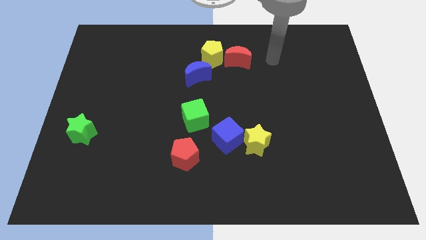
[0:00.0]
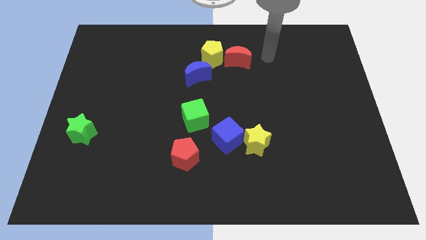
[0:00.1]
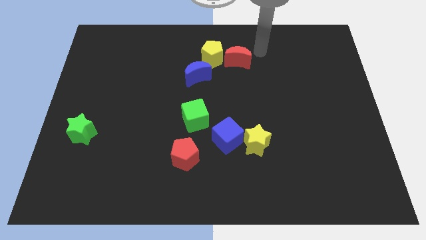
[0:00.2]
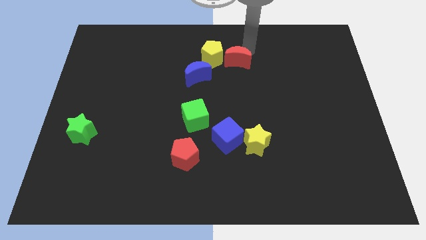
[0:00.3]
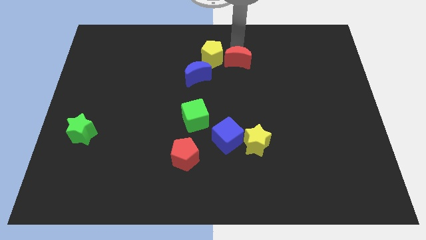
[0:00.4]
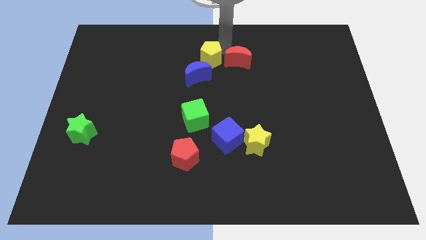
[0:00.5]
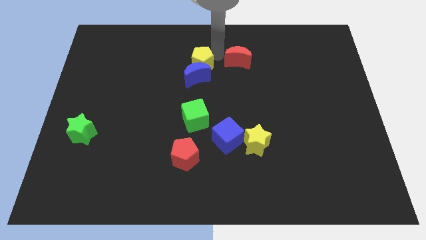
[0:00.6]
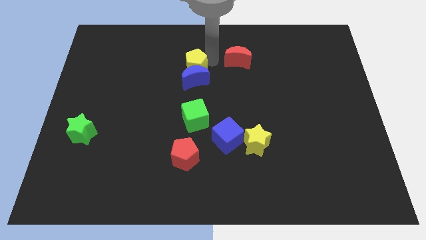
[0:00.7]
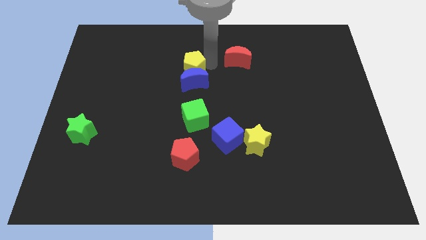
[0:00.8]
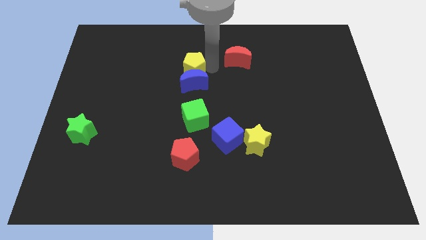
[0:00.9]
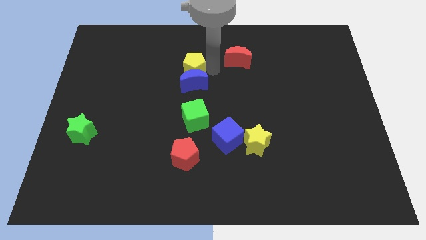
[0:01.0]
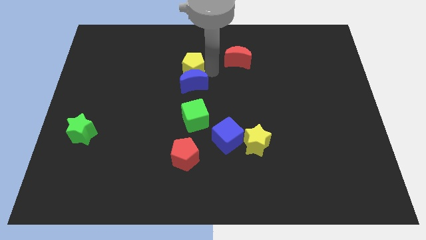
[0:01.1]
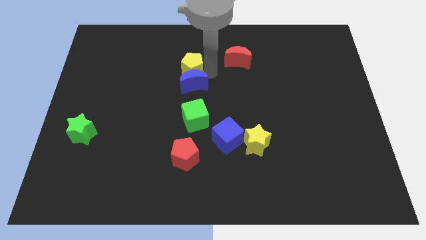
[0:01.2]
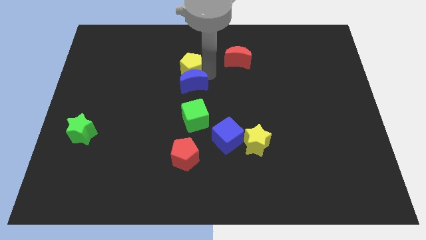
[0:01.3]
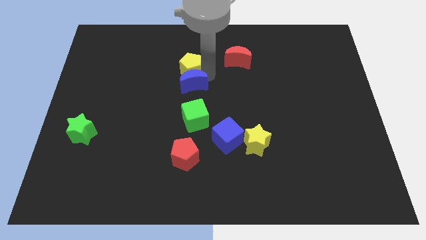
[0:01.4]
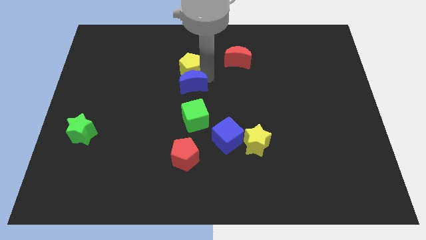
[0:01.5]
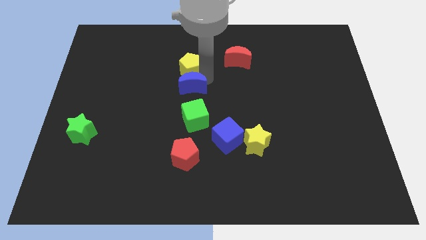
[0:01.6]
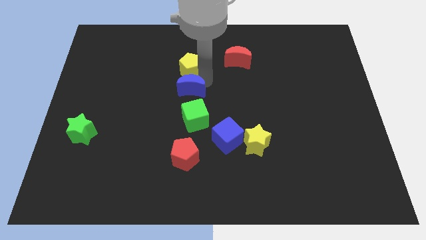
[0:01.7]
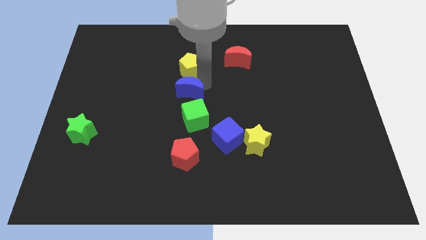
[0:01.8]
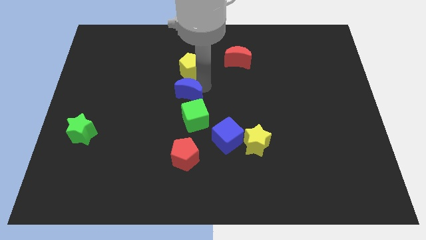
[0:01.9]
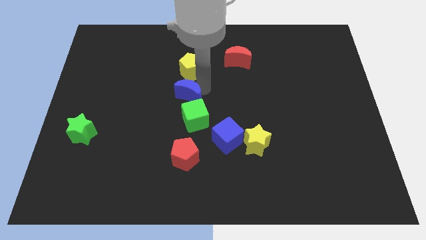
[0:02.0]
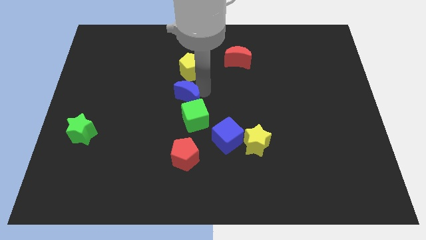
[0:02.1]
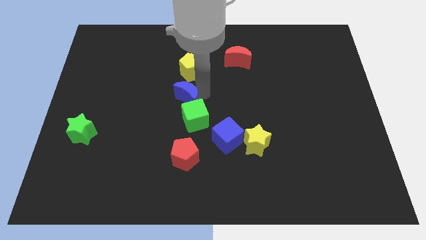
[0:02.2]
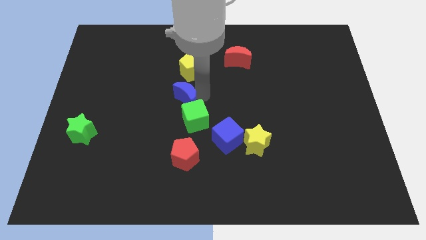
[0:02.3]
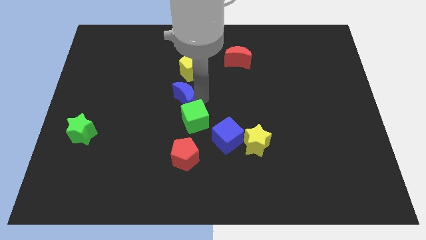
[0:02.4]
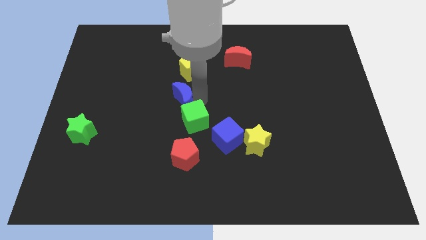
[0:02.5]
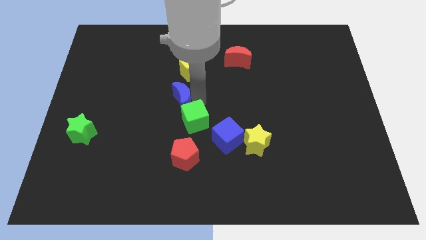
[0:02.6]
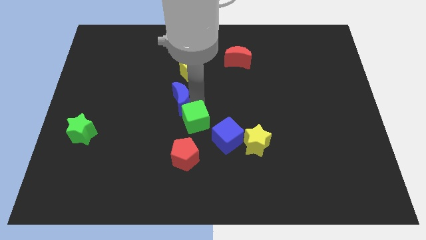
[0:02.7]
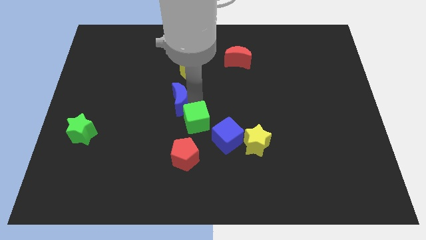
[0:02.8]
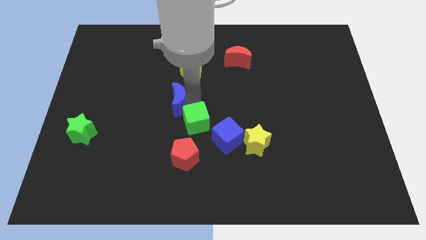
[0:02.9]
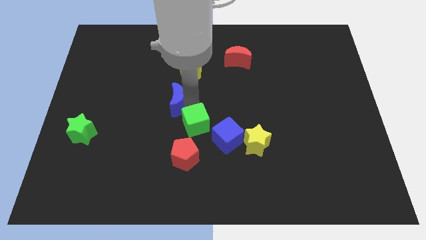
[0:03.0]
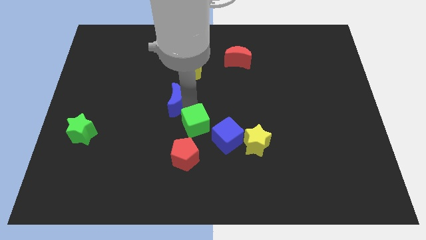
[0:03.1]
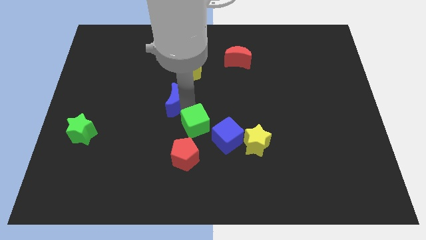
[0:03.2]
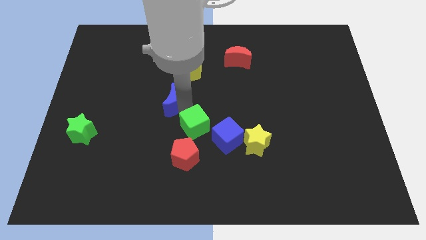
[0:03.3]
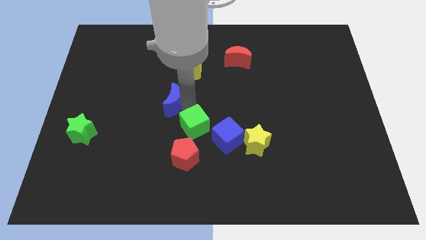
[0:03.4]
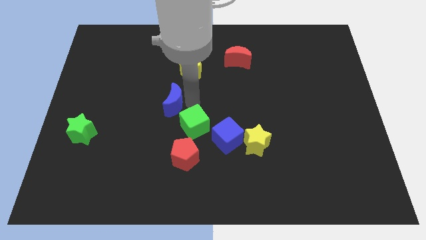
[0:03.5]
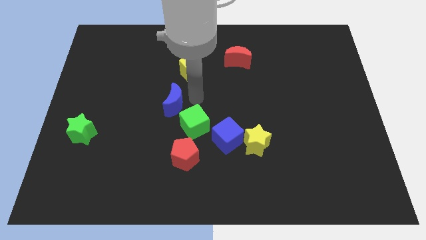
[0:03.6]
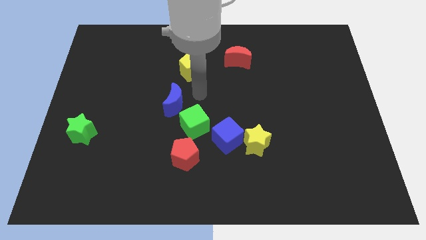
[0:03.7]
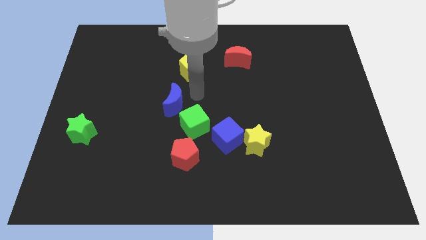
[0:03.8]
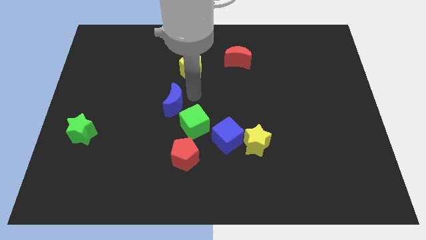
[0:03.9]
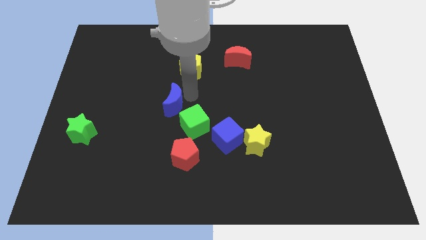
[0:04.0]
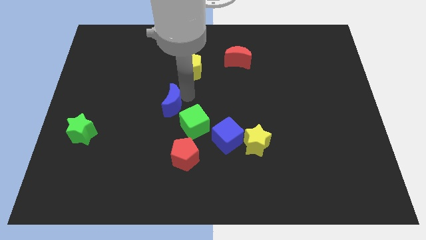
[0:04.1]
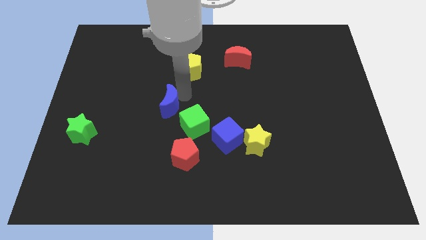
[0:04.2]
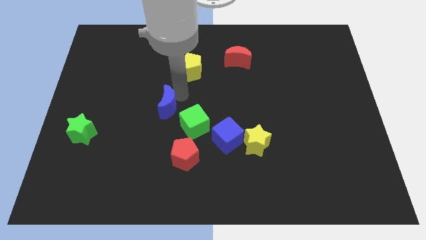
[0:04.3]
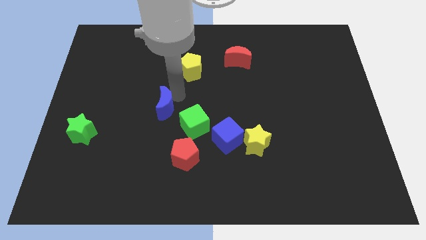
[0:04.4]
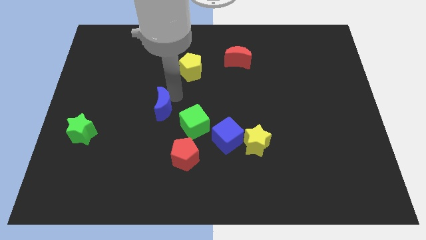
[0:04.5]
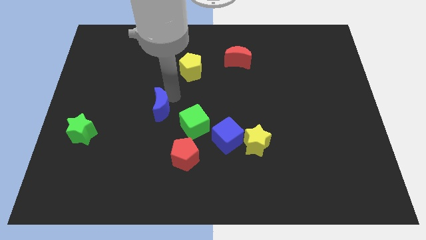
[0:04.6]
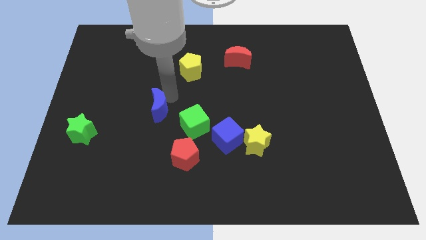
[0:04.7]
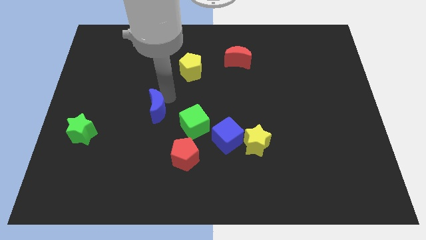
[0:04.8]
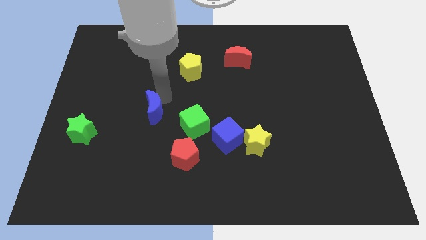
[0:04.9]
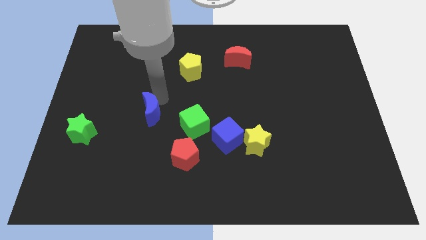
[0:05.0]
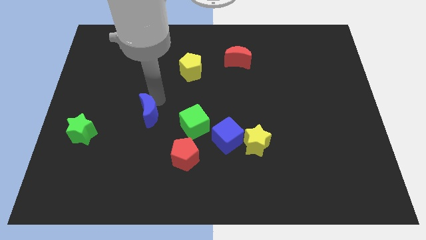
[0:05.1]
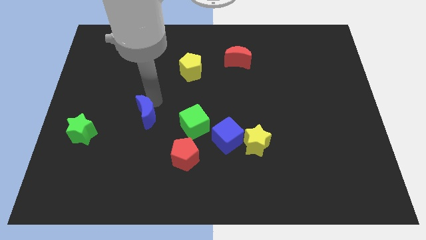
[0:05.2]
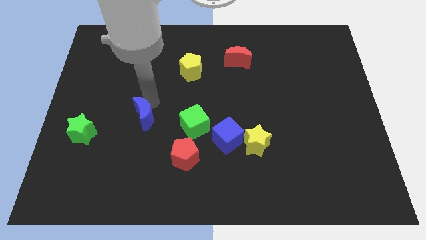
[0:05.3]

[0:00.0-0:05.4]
slide the blue moon to the right of the green star

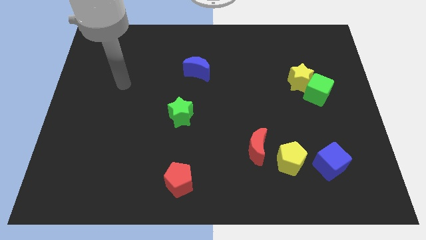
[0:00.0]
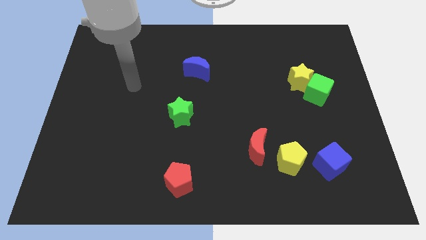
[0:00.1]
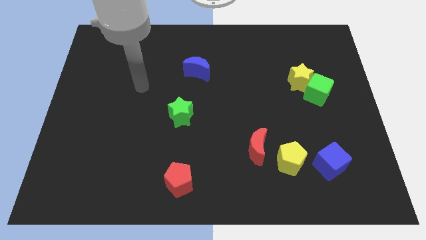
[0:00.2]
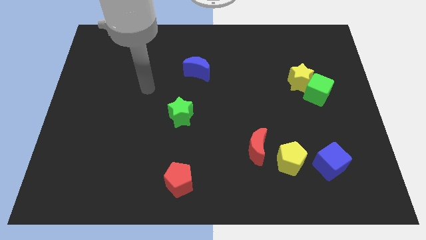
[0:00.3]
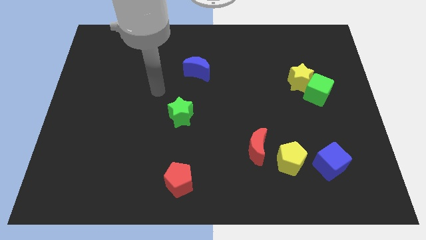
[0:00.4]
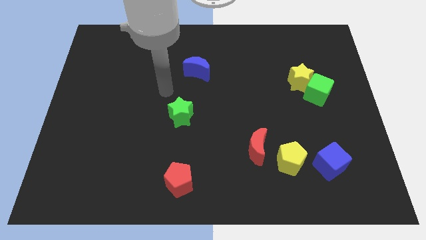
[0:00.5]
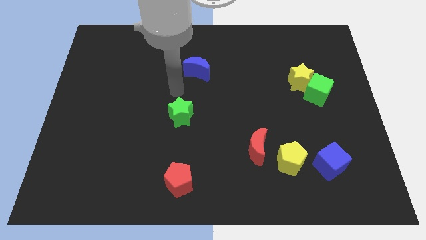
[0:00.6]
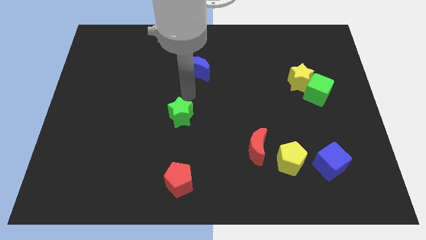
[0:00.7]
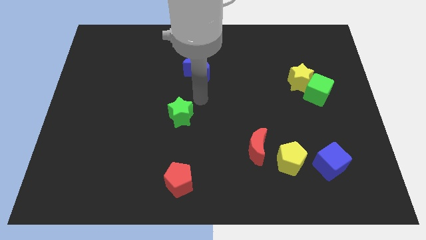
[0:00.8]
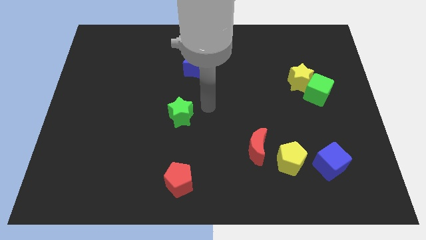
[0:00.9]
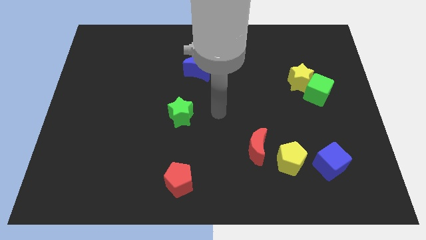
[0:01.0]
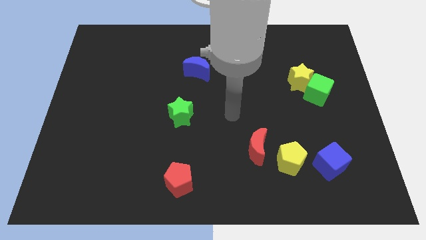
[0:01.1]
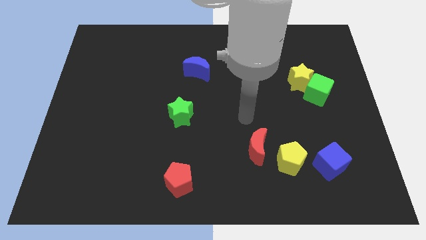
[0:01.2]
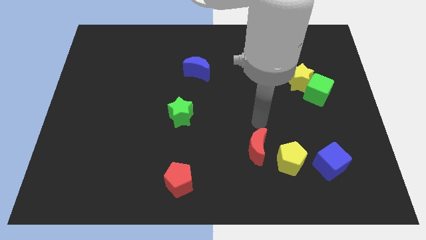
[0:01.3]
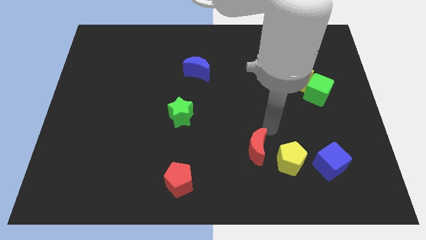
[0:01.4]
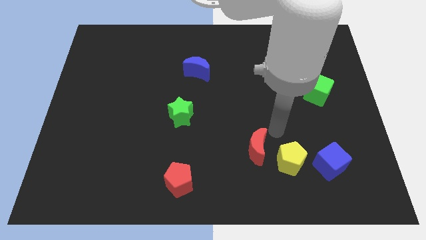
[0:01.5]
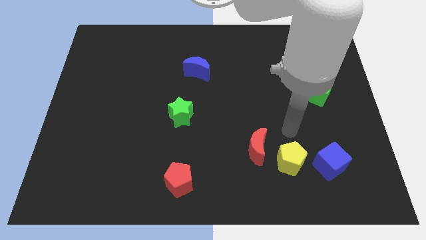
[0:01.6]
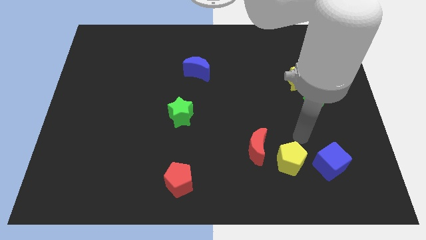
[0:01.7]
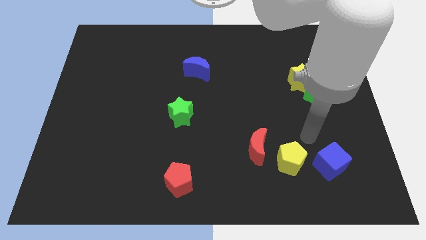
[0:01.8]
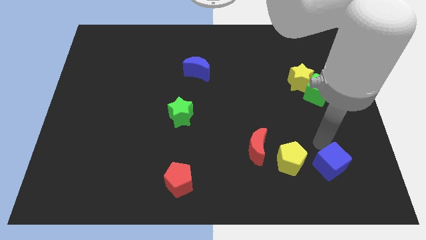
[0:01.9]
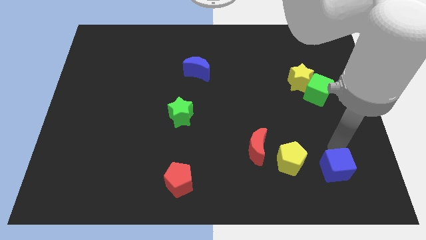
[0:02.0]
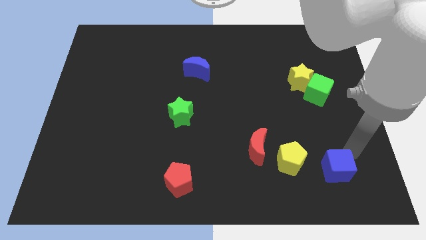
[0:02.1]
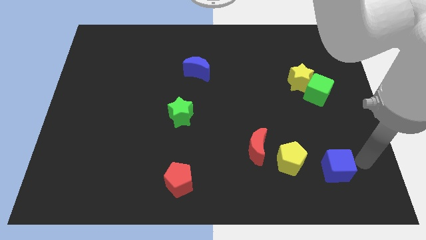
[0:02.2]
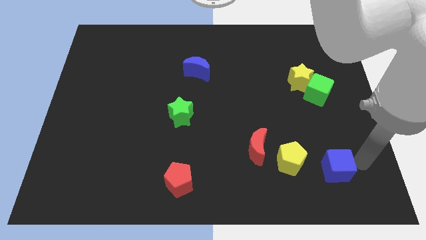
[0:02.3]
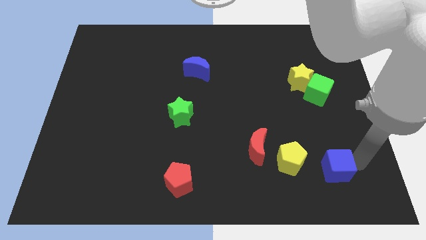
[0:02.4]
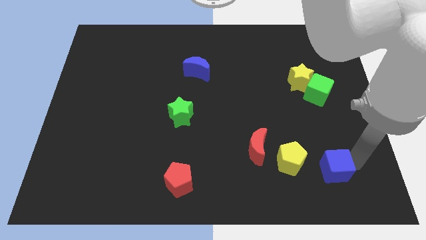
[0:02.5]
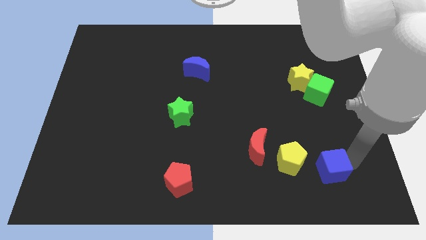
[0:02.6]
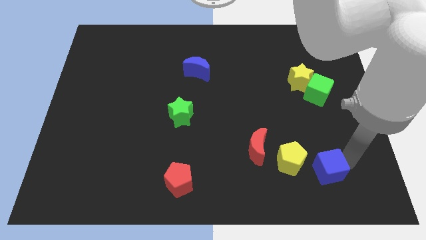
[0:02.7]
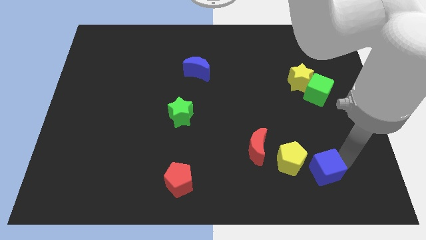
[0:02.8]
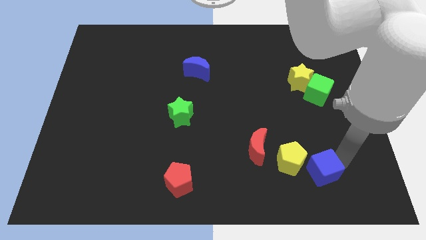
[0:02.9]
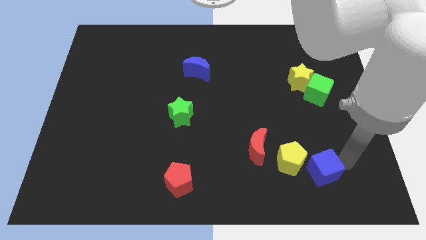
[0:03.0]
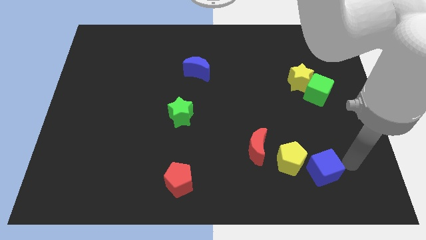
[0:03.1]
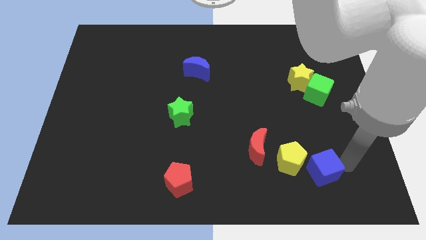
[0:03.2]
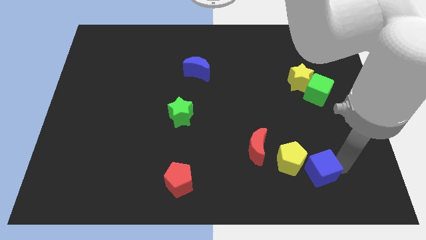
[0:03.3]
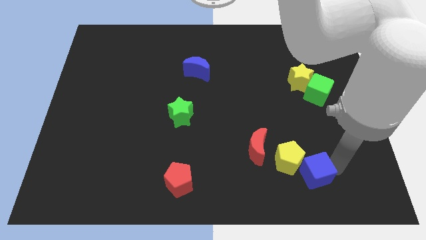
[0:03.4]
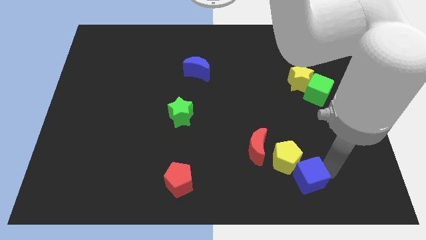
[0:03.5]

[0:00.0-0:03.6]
push the blue cube to the bottom right side of the red moon
